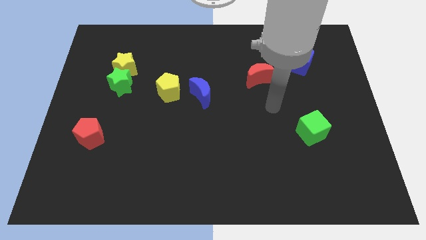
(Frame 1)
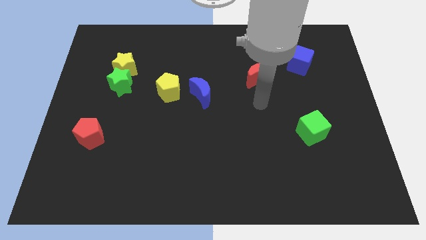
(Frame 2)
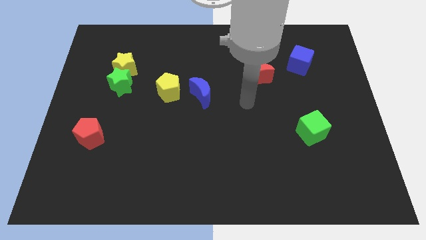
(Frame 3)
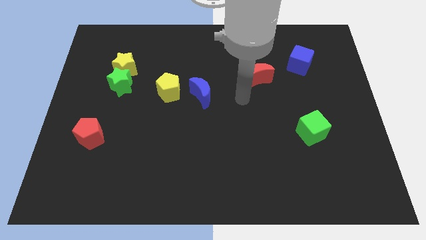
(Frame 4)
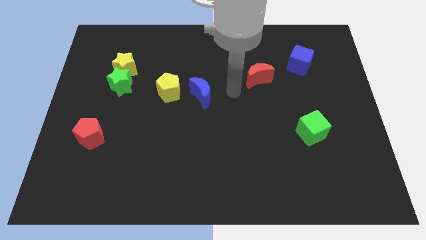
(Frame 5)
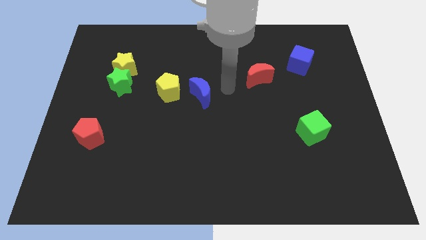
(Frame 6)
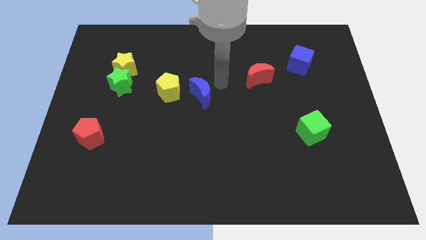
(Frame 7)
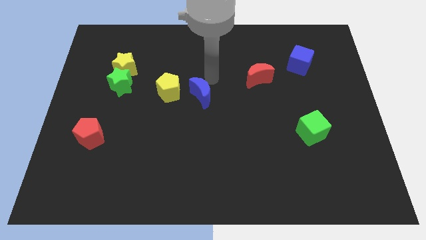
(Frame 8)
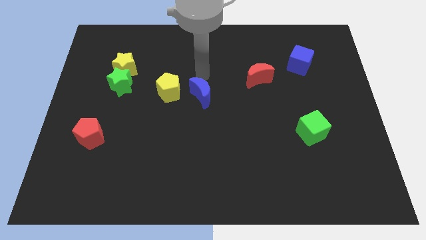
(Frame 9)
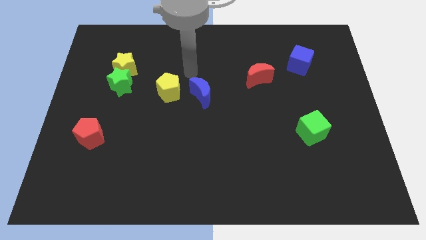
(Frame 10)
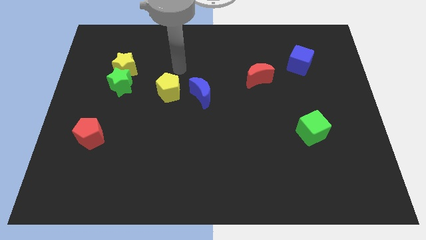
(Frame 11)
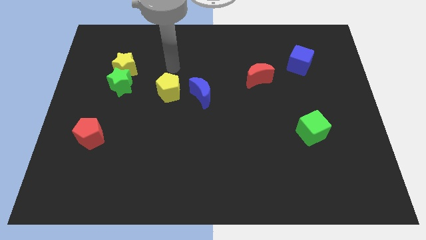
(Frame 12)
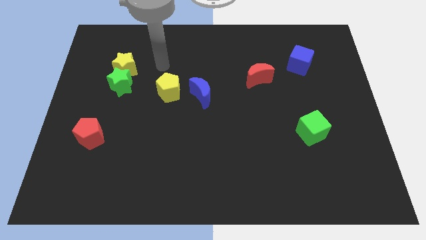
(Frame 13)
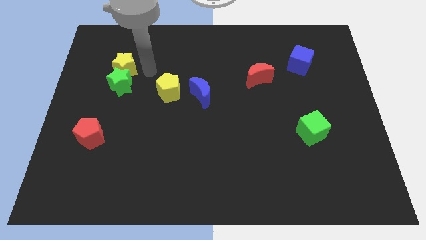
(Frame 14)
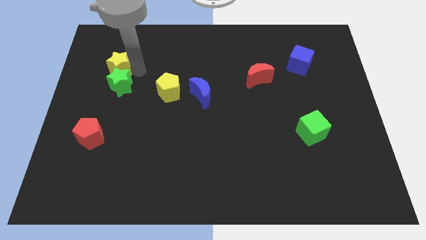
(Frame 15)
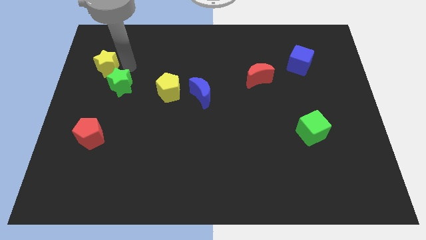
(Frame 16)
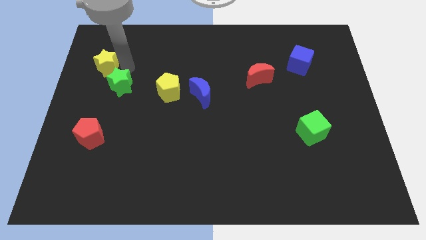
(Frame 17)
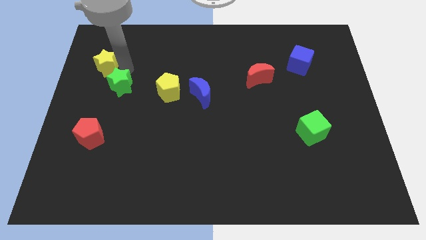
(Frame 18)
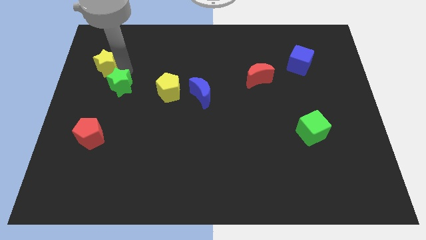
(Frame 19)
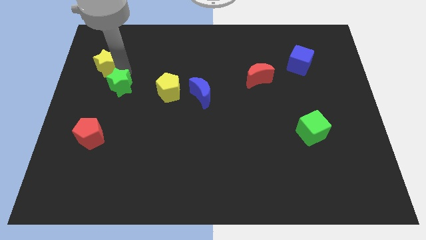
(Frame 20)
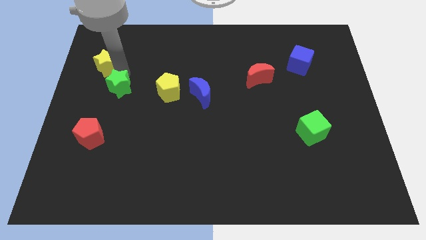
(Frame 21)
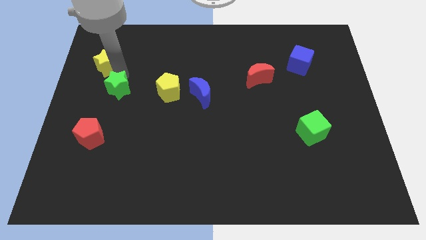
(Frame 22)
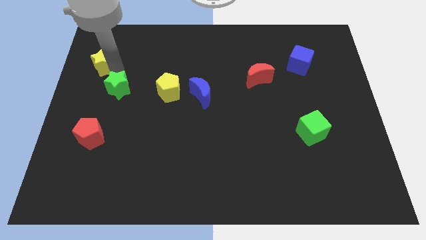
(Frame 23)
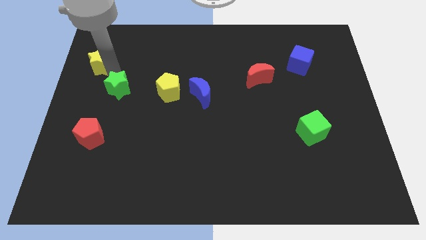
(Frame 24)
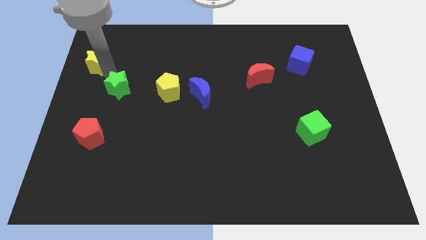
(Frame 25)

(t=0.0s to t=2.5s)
pull the green star apart from the yellow star

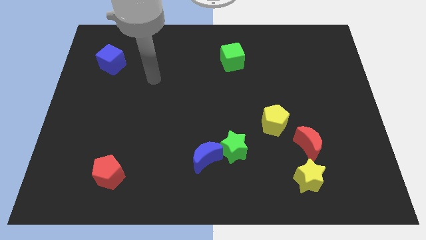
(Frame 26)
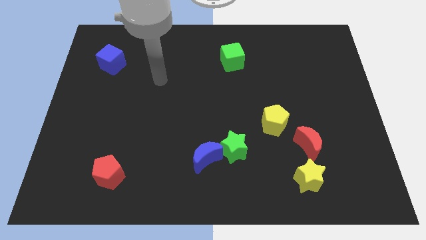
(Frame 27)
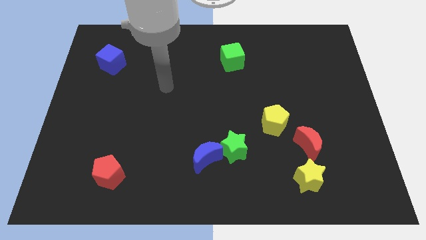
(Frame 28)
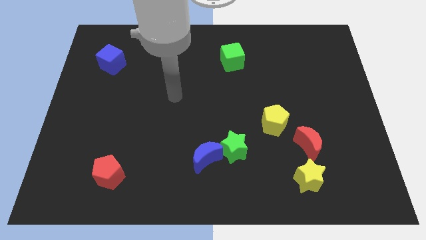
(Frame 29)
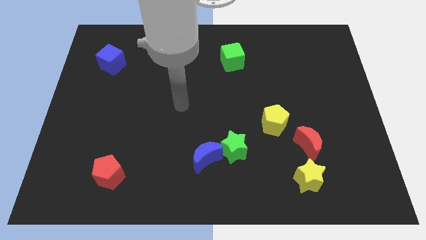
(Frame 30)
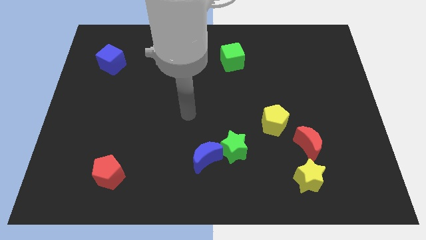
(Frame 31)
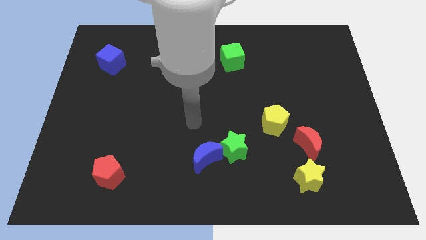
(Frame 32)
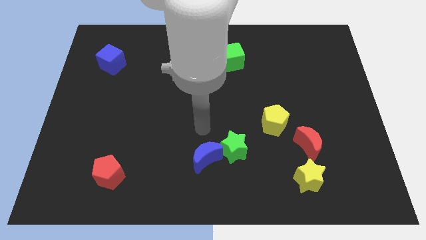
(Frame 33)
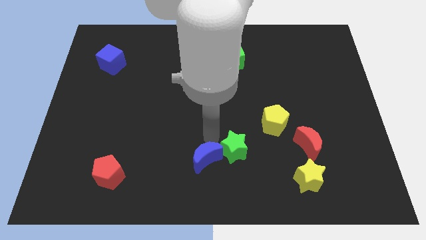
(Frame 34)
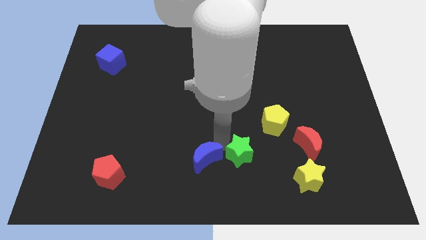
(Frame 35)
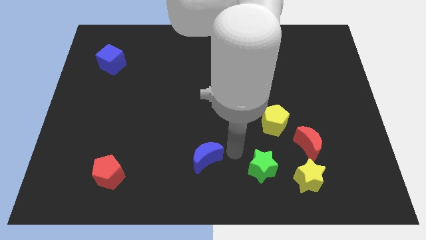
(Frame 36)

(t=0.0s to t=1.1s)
pull the blue moon apart from the green star

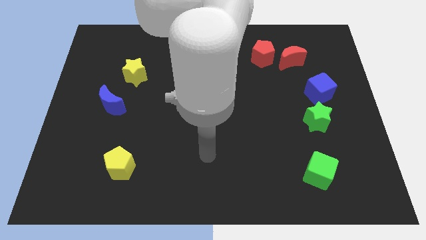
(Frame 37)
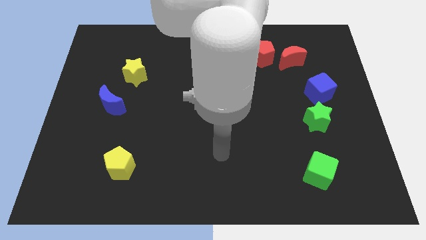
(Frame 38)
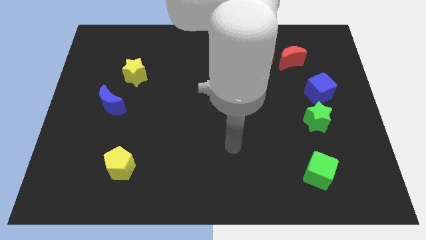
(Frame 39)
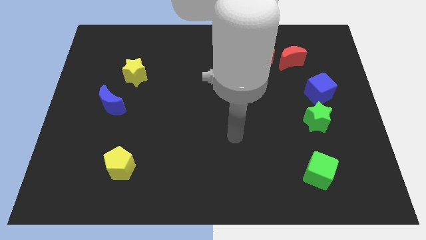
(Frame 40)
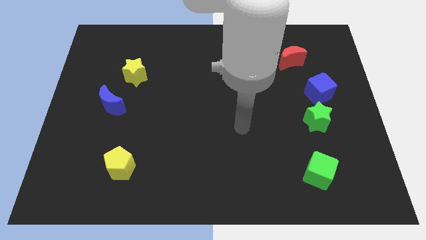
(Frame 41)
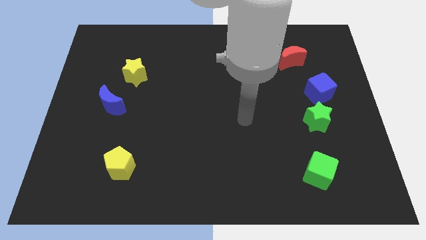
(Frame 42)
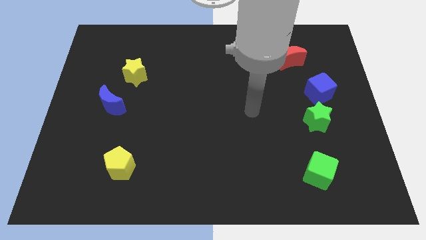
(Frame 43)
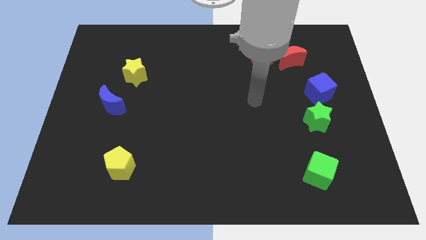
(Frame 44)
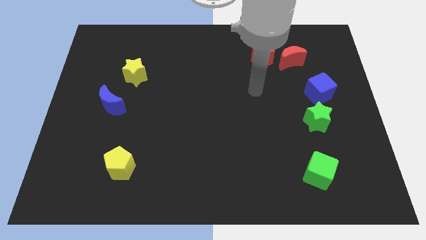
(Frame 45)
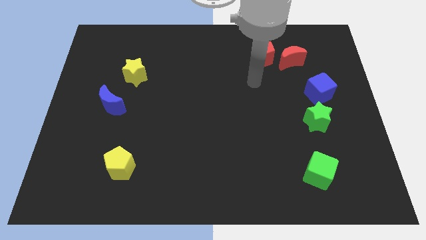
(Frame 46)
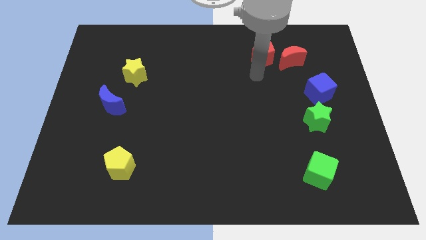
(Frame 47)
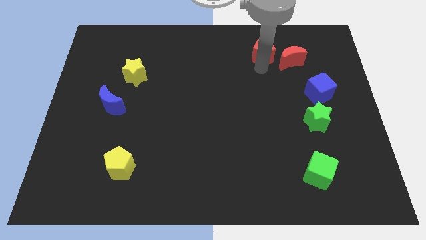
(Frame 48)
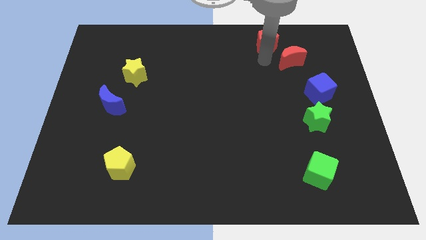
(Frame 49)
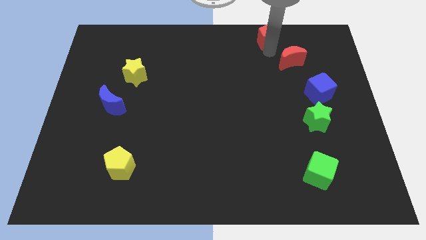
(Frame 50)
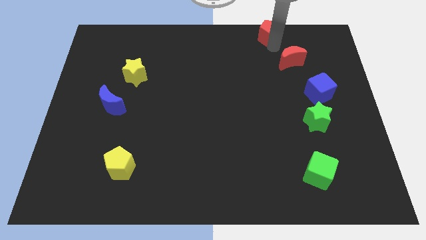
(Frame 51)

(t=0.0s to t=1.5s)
separate the red moon from the red pentagon

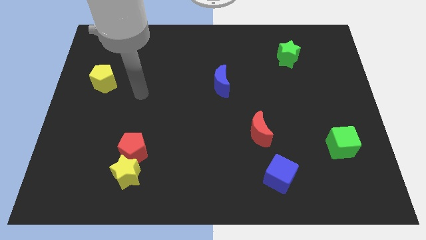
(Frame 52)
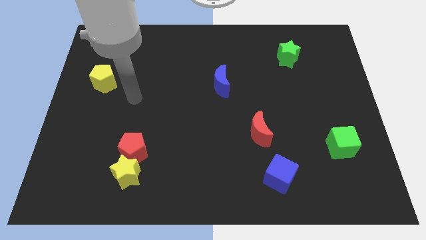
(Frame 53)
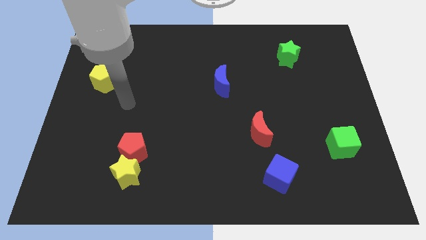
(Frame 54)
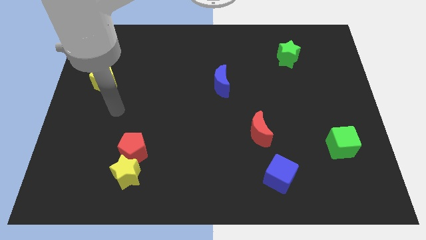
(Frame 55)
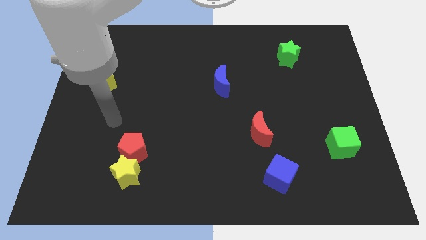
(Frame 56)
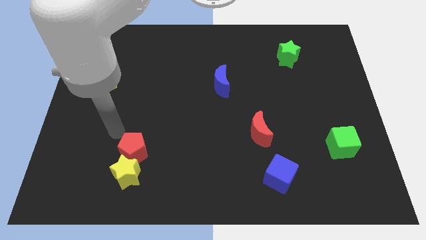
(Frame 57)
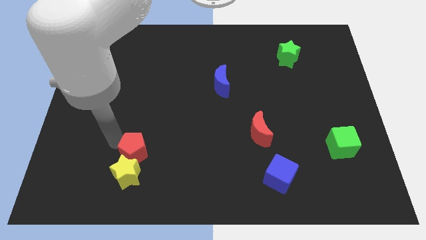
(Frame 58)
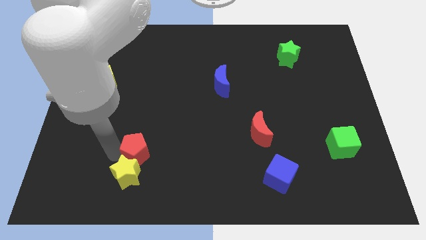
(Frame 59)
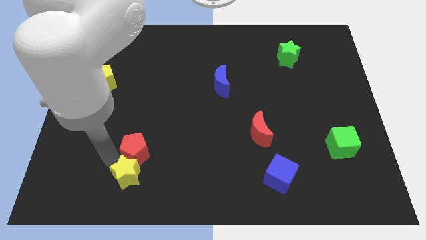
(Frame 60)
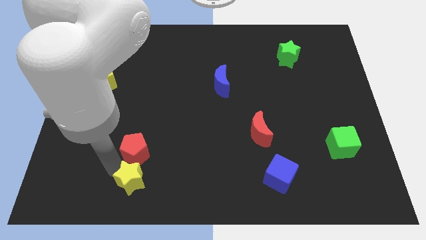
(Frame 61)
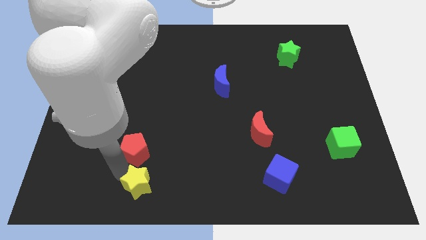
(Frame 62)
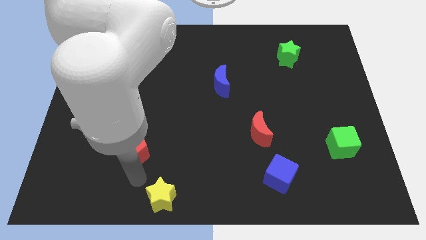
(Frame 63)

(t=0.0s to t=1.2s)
move the red pentagon away from the yellow star

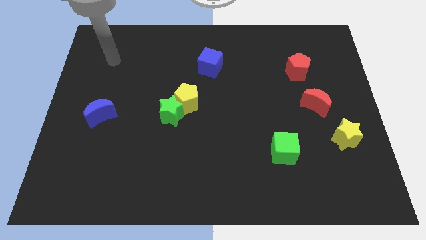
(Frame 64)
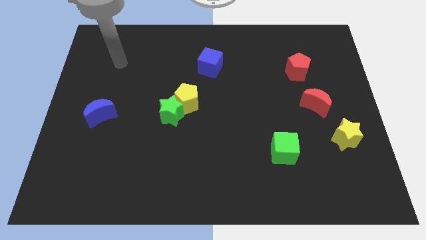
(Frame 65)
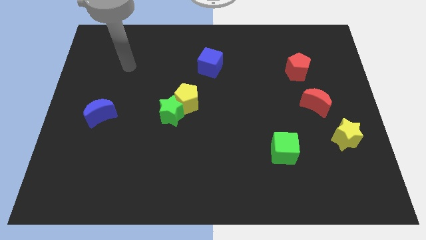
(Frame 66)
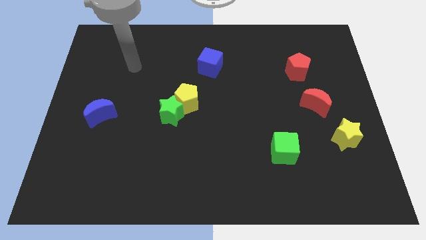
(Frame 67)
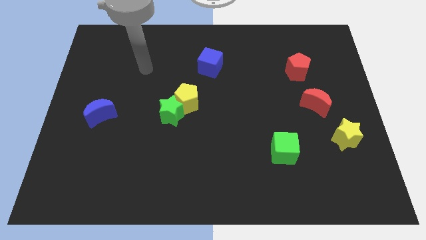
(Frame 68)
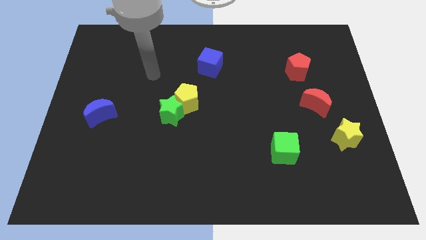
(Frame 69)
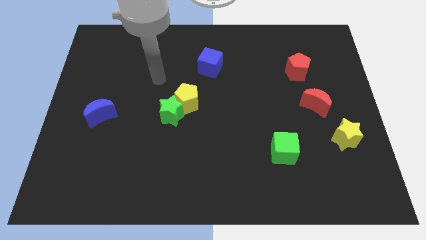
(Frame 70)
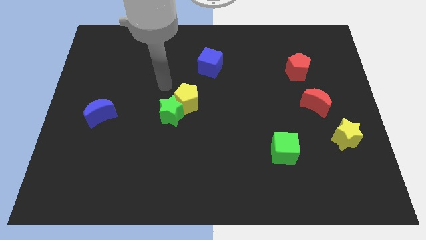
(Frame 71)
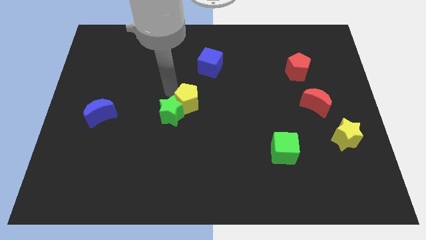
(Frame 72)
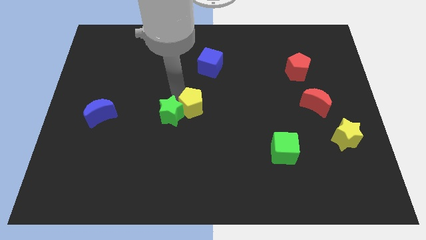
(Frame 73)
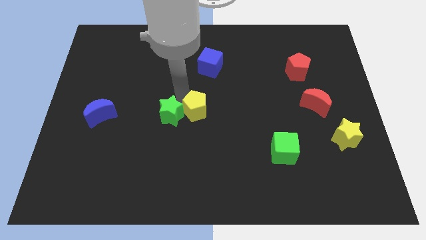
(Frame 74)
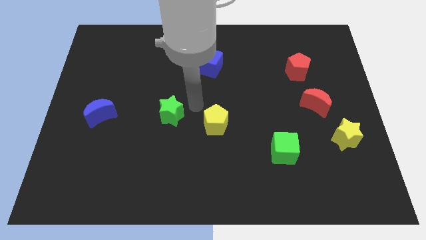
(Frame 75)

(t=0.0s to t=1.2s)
move the green star away from the yellow pentagon

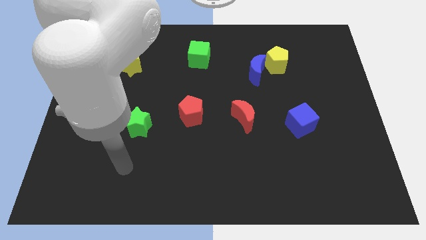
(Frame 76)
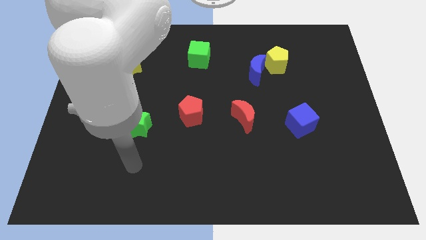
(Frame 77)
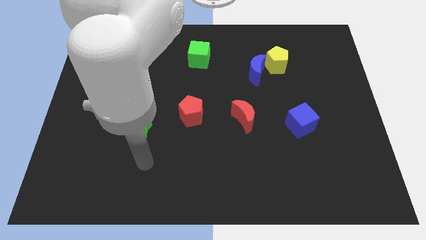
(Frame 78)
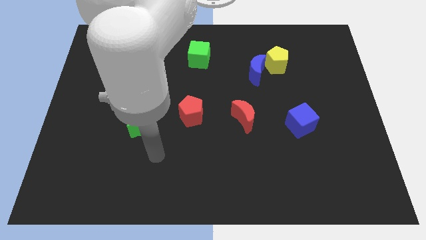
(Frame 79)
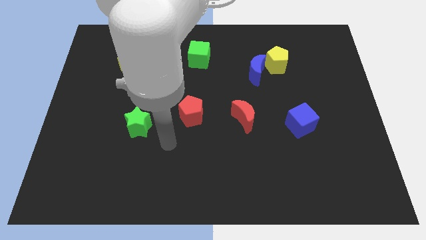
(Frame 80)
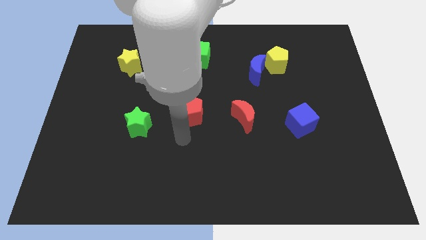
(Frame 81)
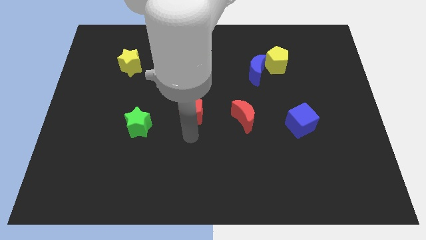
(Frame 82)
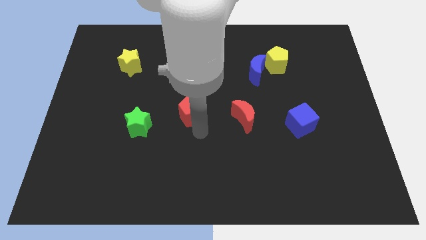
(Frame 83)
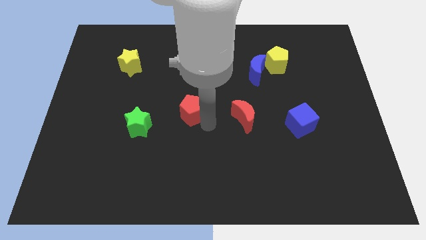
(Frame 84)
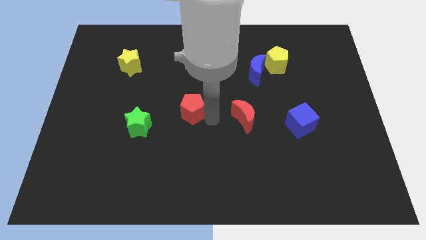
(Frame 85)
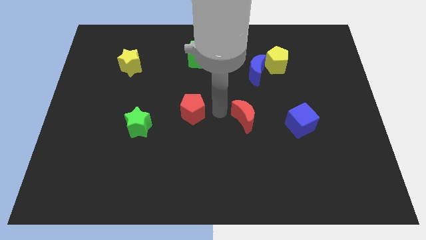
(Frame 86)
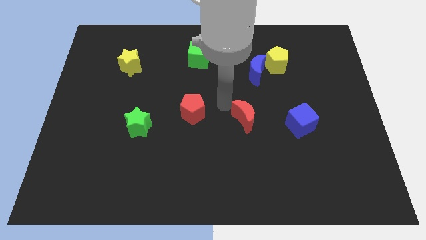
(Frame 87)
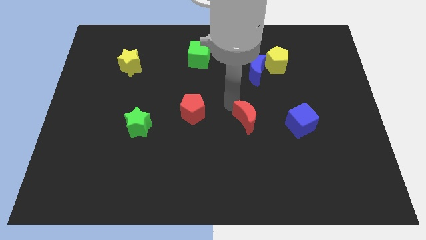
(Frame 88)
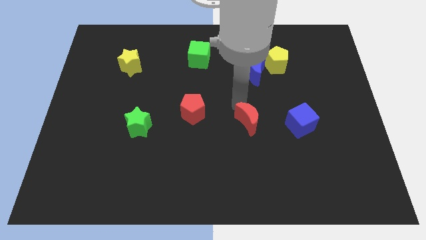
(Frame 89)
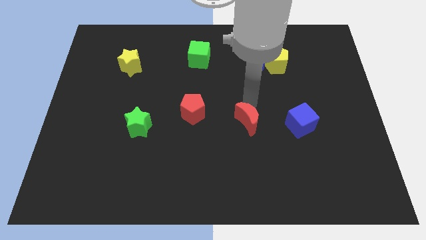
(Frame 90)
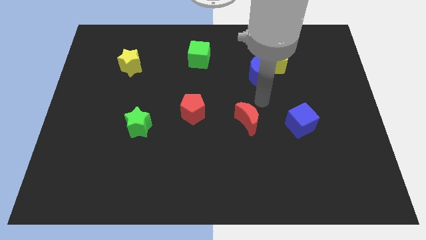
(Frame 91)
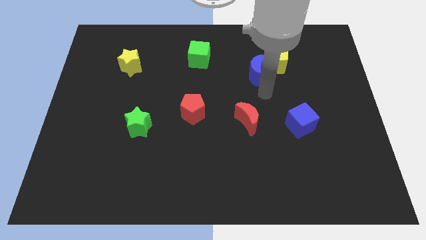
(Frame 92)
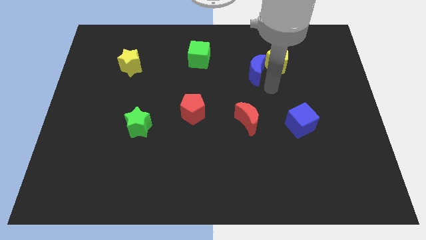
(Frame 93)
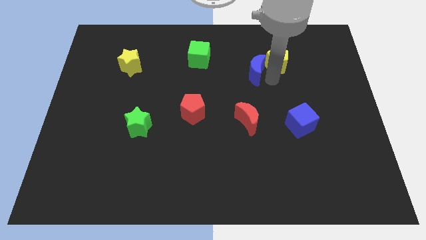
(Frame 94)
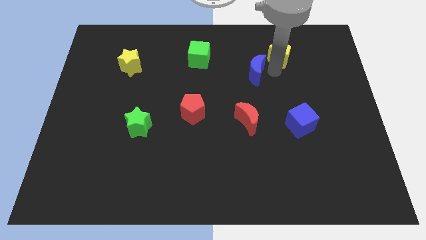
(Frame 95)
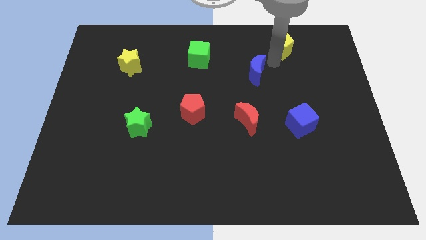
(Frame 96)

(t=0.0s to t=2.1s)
move the blue moon away from the yellow pentagon
